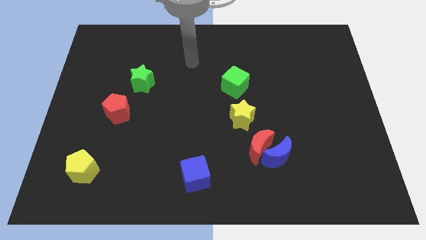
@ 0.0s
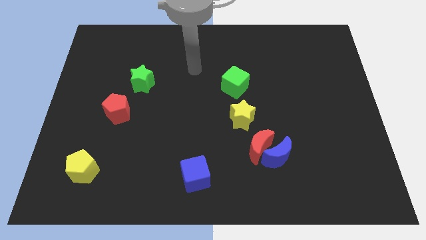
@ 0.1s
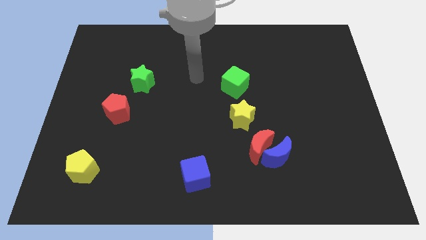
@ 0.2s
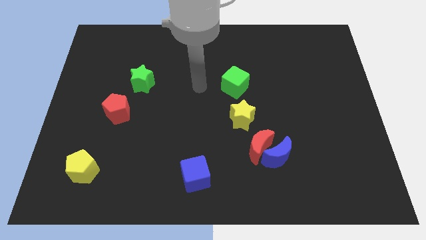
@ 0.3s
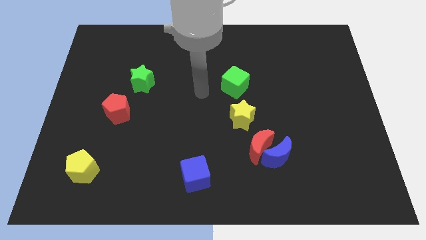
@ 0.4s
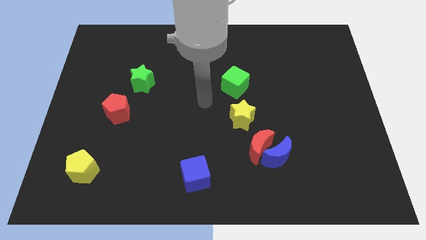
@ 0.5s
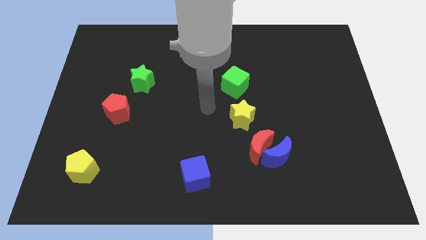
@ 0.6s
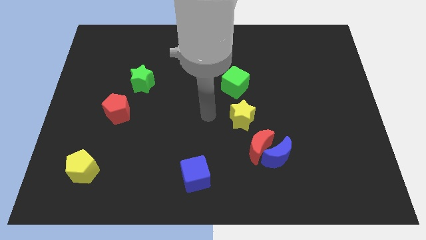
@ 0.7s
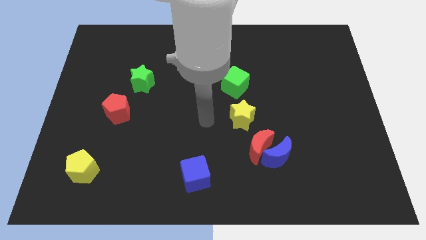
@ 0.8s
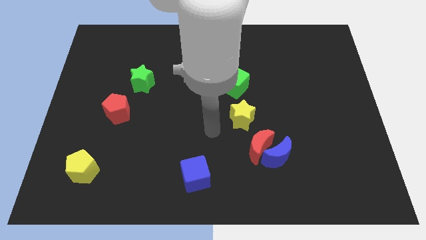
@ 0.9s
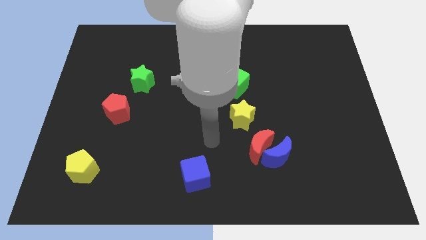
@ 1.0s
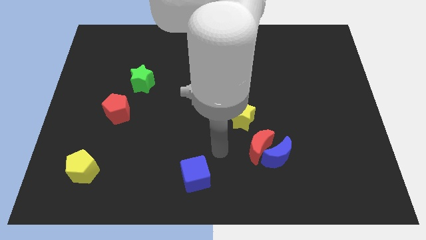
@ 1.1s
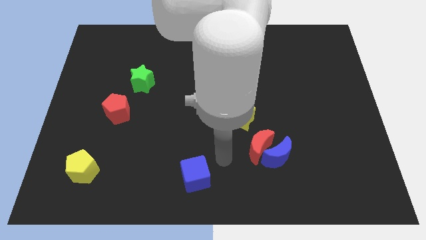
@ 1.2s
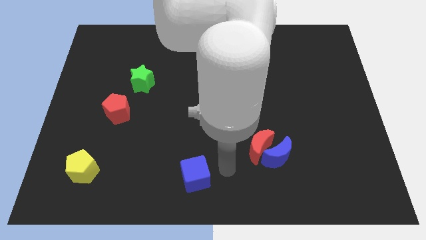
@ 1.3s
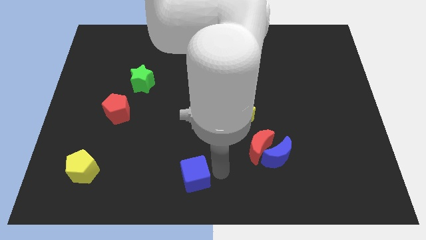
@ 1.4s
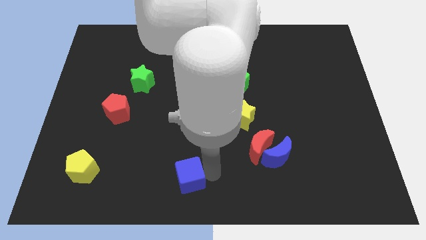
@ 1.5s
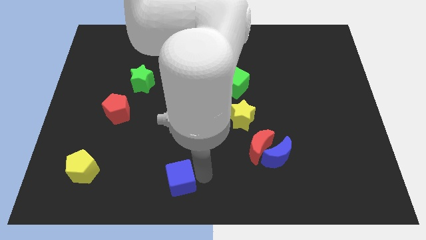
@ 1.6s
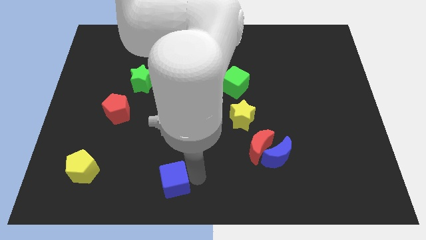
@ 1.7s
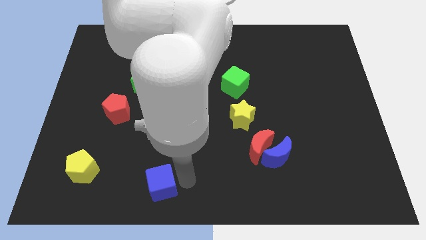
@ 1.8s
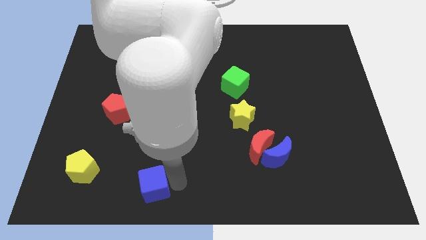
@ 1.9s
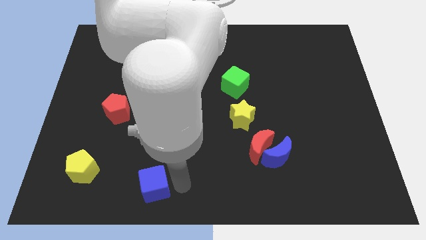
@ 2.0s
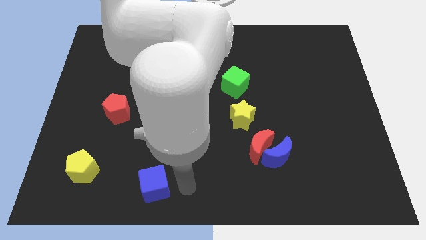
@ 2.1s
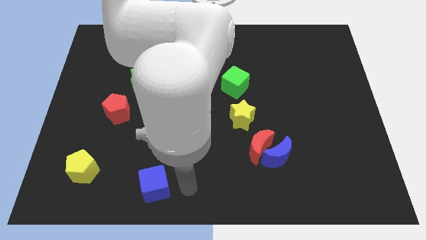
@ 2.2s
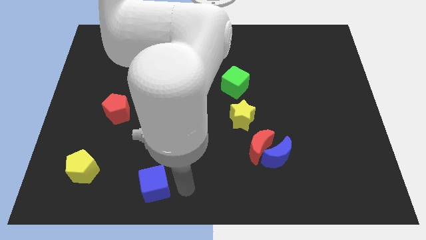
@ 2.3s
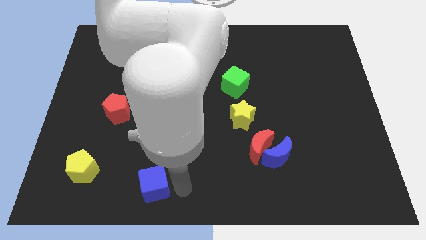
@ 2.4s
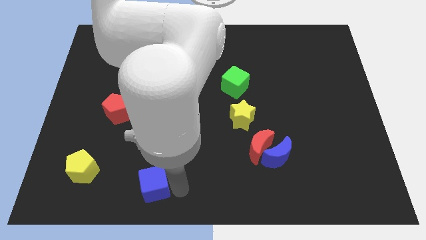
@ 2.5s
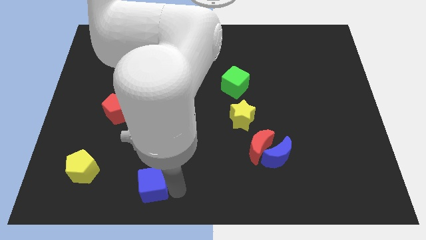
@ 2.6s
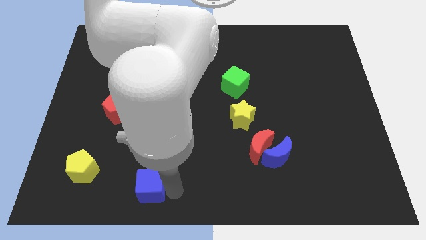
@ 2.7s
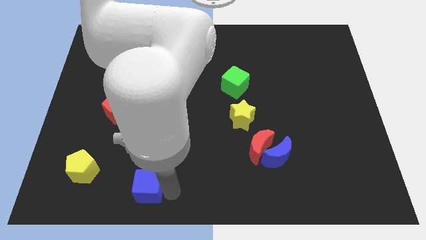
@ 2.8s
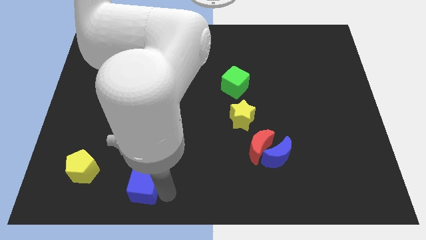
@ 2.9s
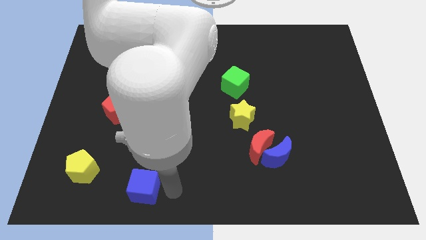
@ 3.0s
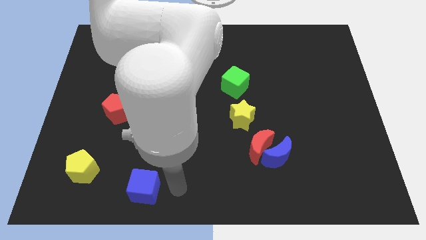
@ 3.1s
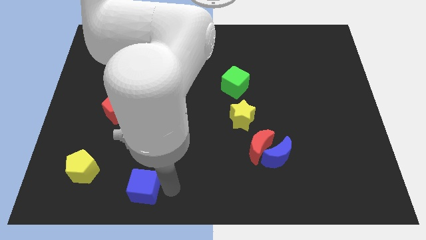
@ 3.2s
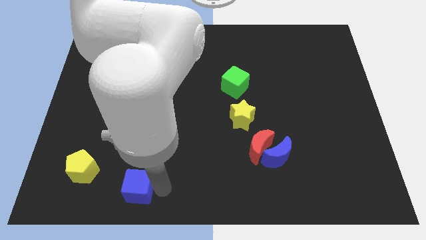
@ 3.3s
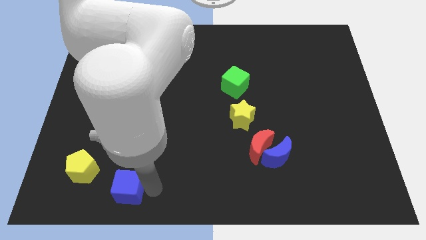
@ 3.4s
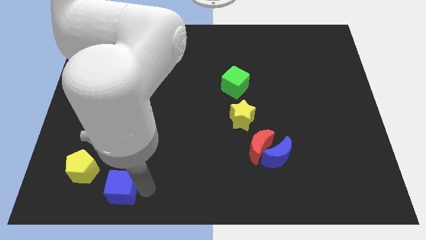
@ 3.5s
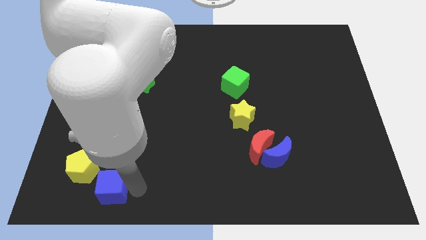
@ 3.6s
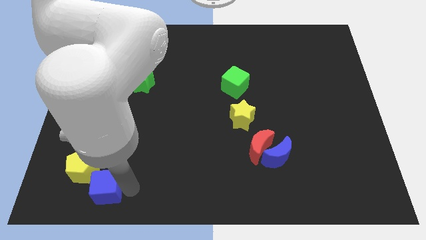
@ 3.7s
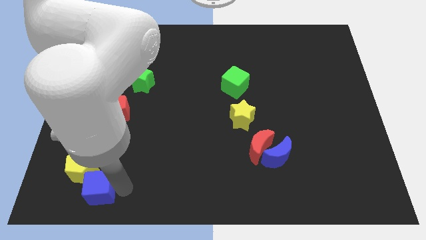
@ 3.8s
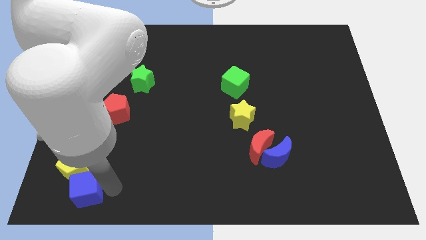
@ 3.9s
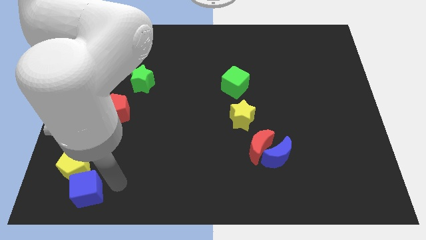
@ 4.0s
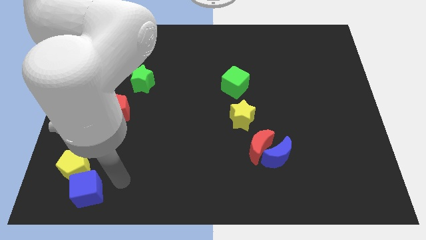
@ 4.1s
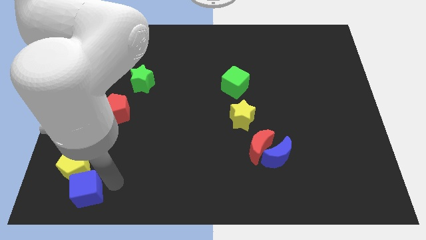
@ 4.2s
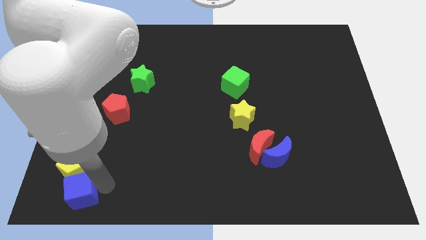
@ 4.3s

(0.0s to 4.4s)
move the blue cube to the bottom left corner

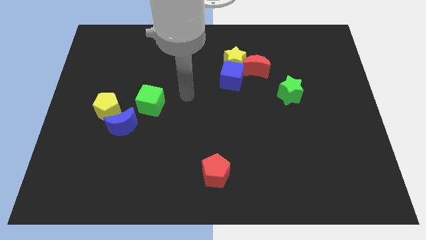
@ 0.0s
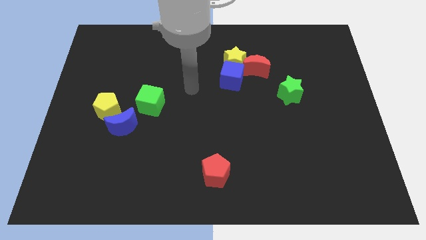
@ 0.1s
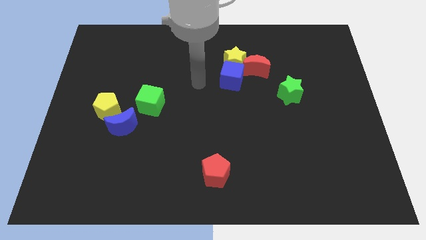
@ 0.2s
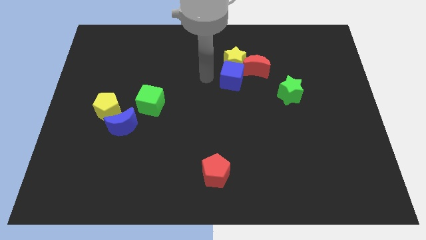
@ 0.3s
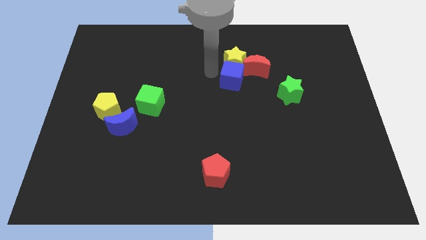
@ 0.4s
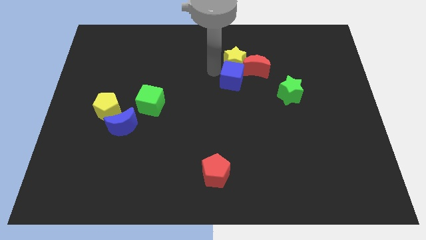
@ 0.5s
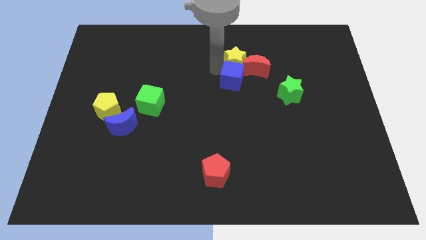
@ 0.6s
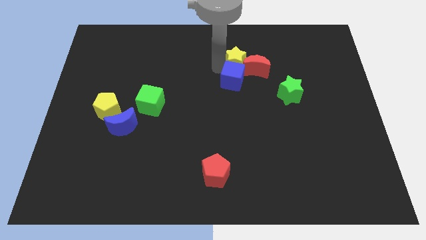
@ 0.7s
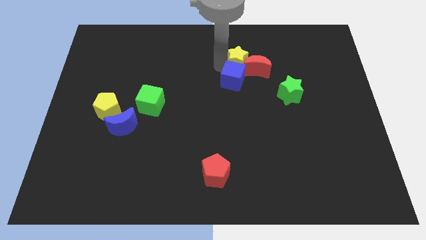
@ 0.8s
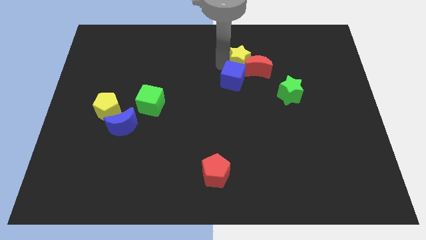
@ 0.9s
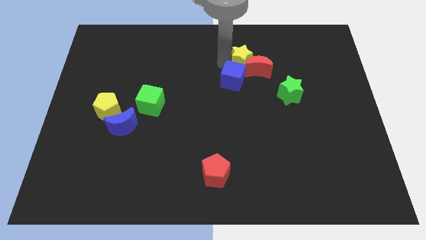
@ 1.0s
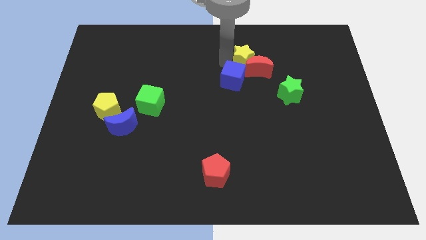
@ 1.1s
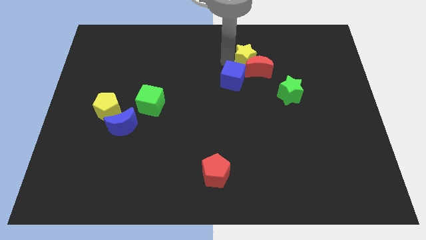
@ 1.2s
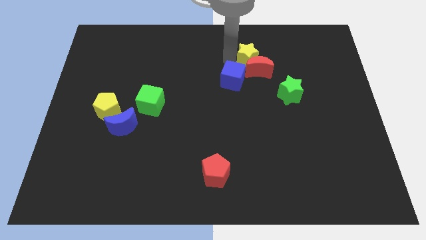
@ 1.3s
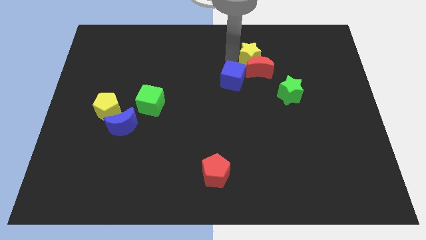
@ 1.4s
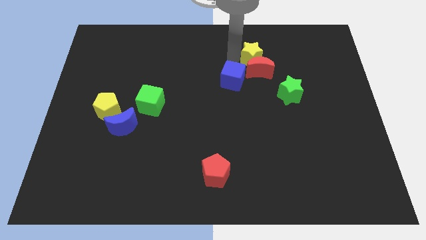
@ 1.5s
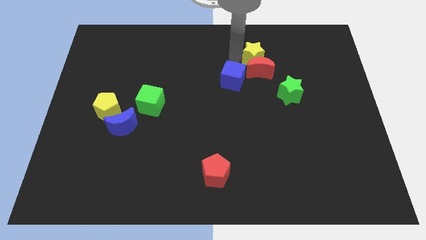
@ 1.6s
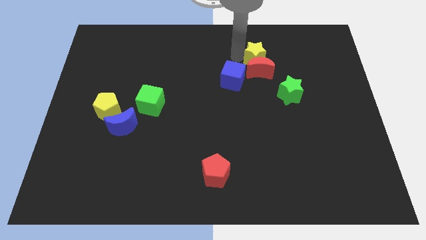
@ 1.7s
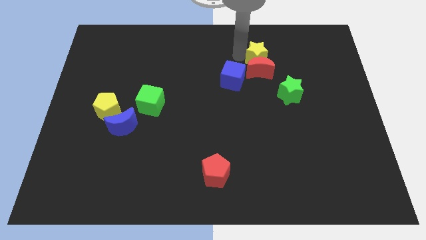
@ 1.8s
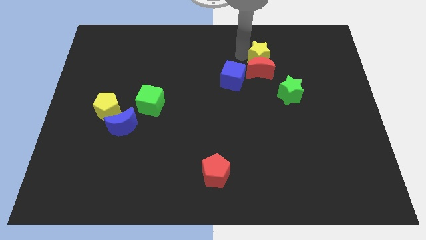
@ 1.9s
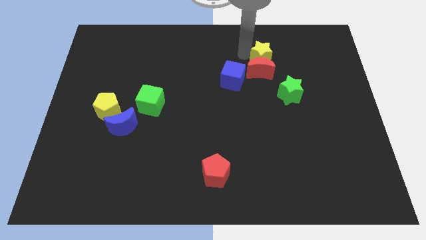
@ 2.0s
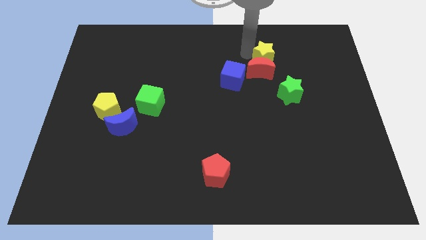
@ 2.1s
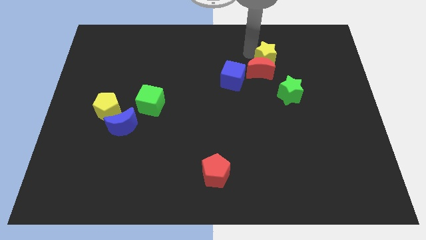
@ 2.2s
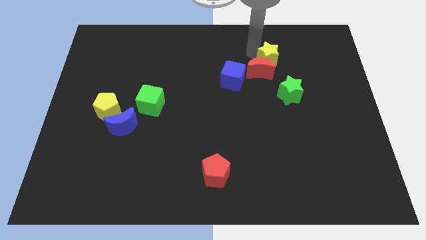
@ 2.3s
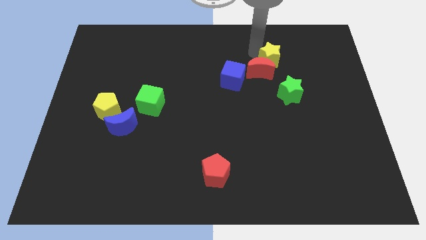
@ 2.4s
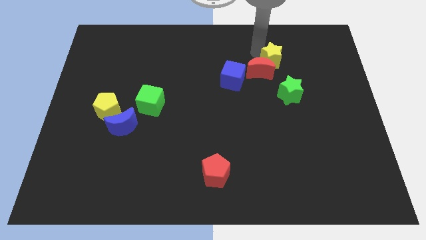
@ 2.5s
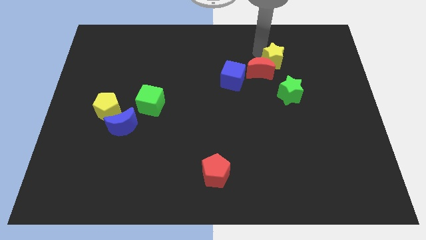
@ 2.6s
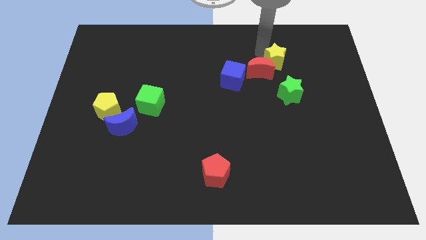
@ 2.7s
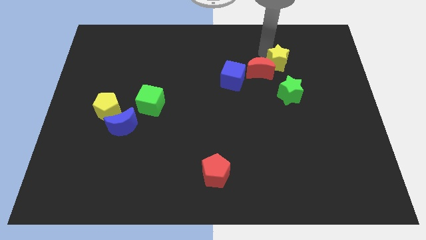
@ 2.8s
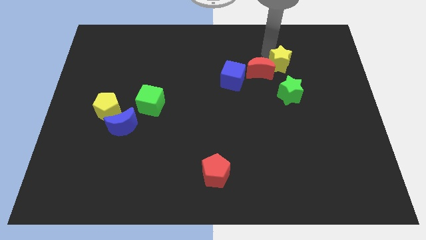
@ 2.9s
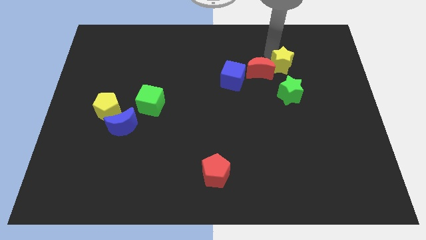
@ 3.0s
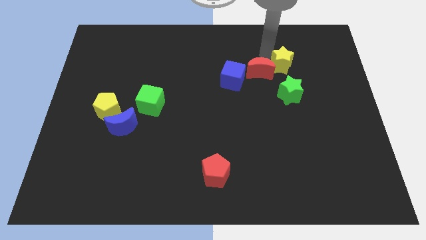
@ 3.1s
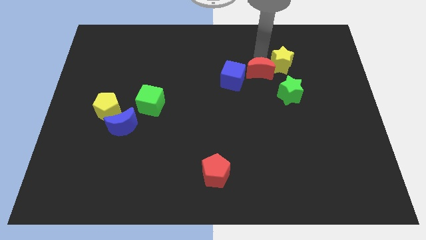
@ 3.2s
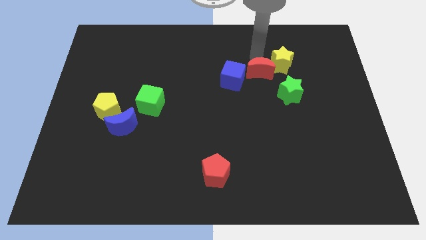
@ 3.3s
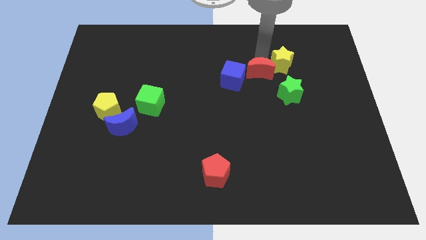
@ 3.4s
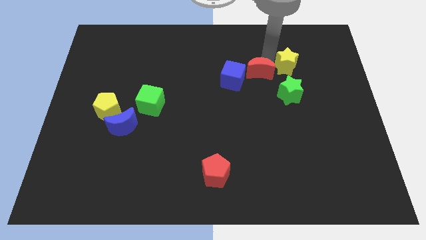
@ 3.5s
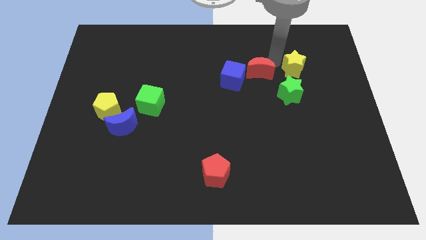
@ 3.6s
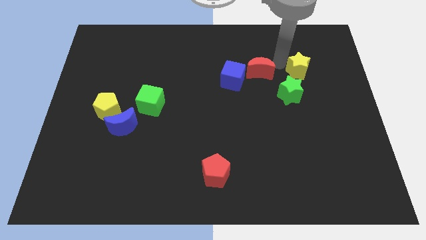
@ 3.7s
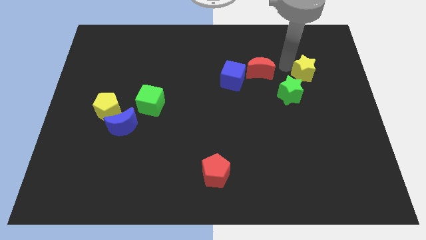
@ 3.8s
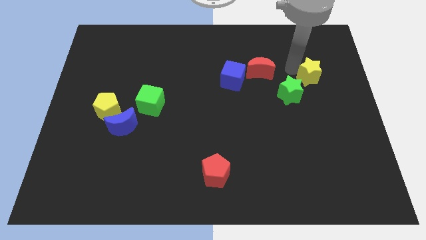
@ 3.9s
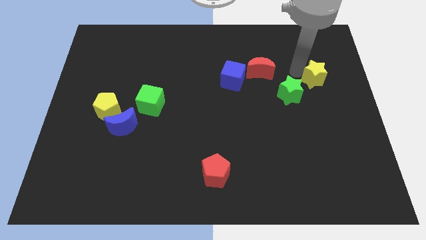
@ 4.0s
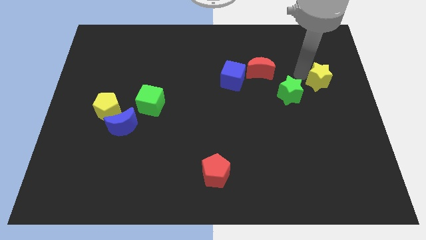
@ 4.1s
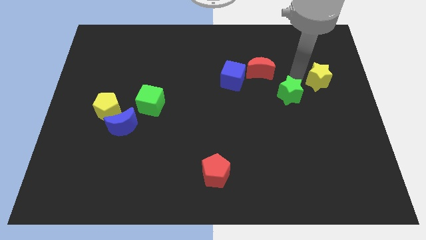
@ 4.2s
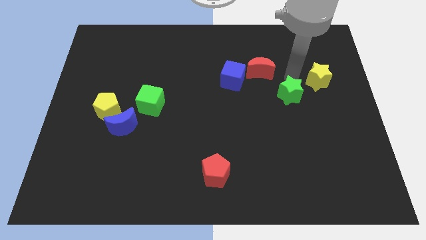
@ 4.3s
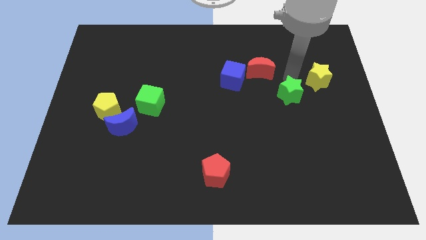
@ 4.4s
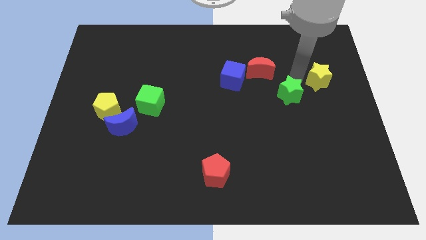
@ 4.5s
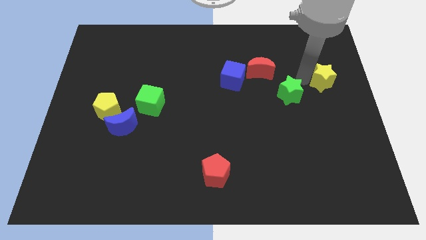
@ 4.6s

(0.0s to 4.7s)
move the yellow star to the center right
